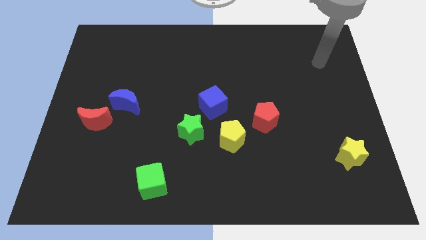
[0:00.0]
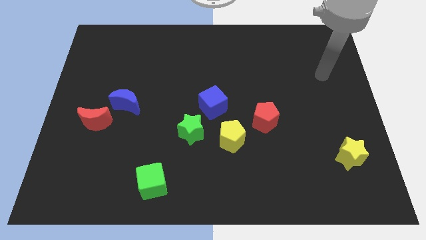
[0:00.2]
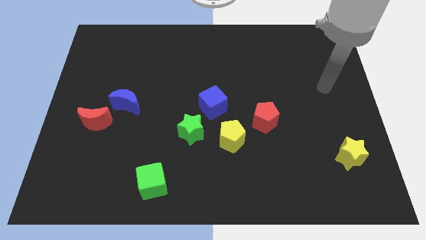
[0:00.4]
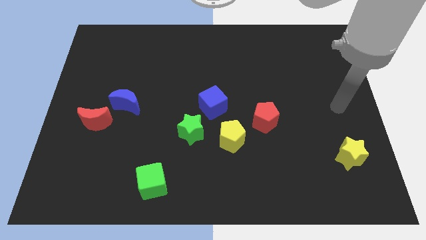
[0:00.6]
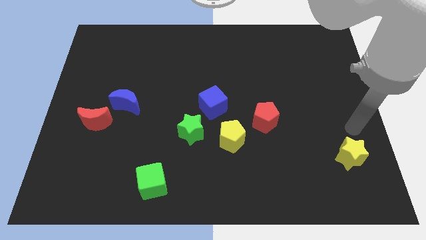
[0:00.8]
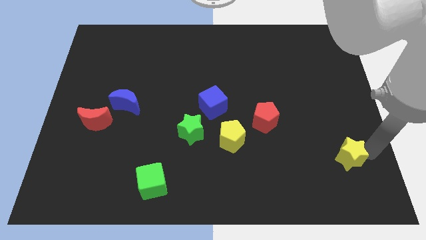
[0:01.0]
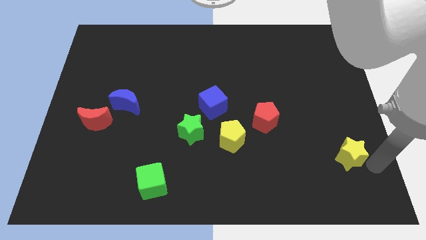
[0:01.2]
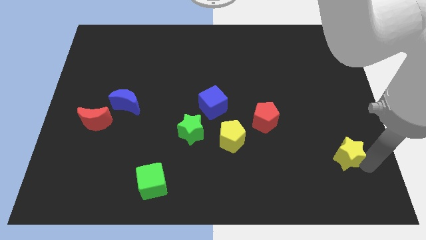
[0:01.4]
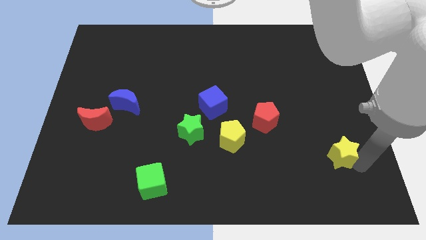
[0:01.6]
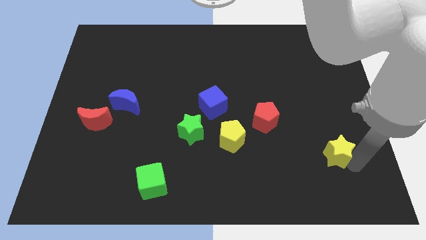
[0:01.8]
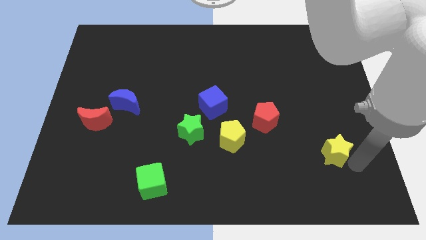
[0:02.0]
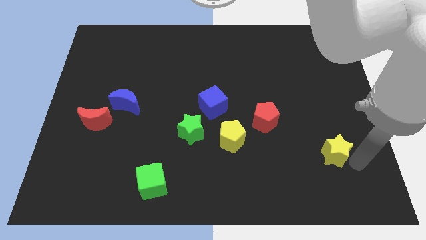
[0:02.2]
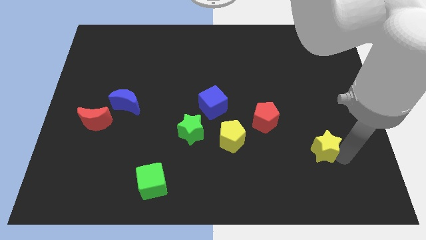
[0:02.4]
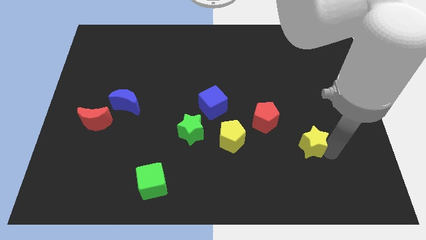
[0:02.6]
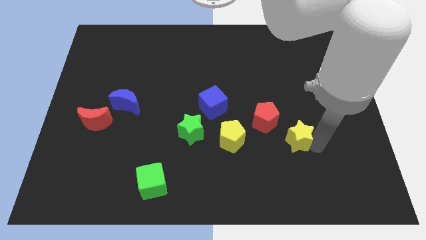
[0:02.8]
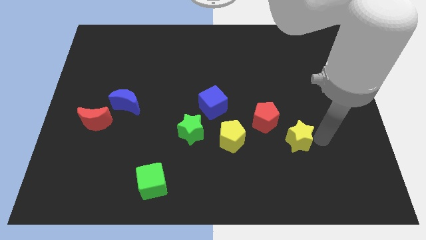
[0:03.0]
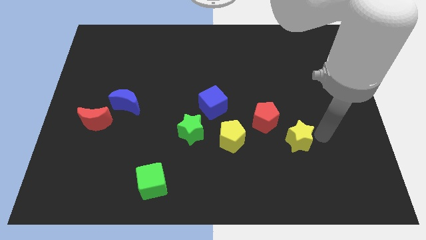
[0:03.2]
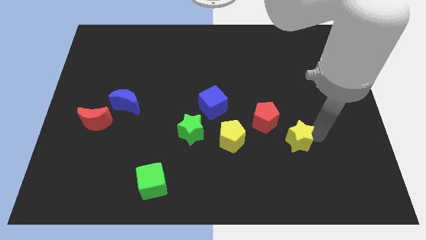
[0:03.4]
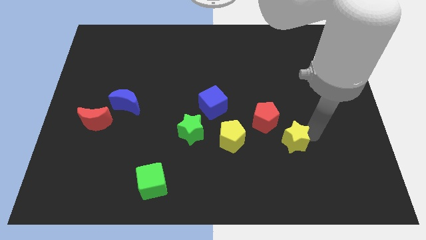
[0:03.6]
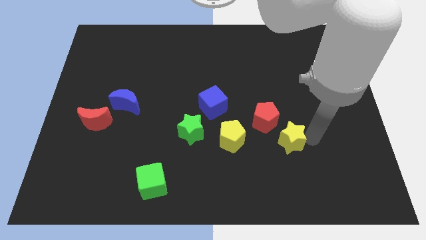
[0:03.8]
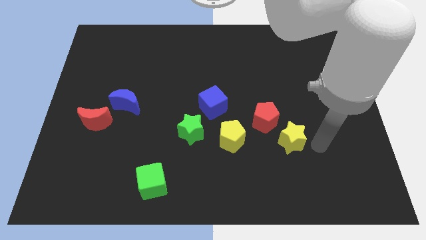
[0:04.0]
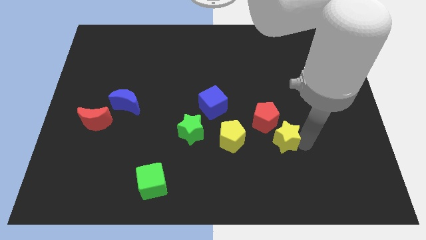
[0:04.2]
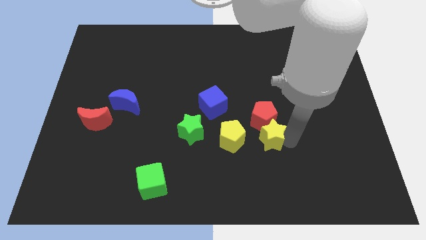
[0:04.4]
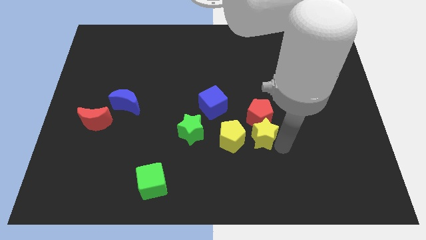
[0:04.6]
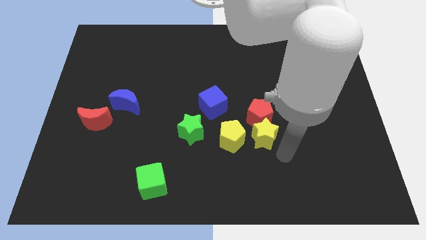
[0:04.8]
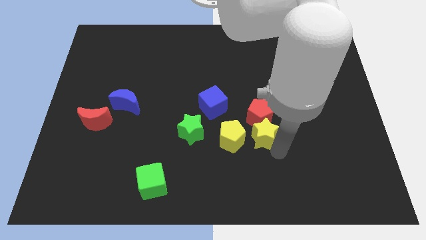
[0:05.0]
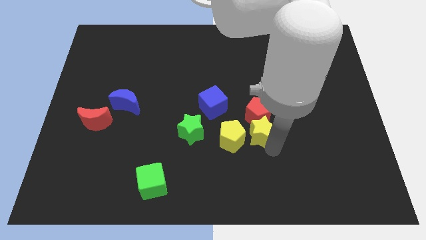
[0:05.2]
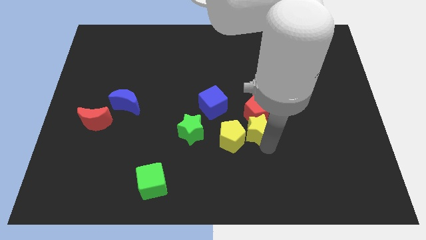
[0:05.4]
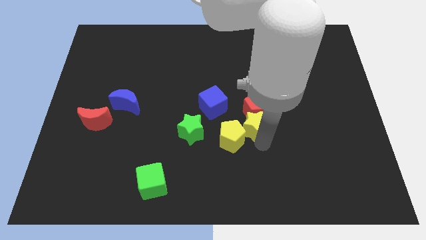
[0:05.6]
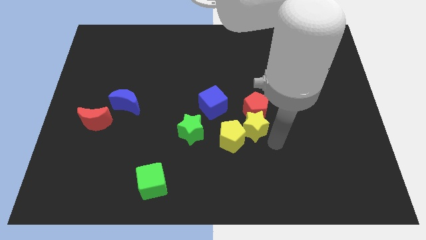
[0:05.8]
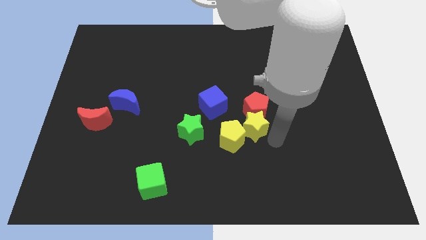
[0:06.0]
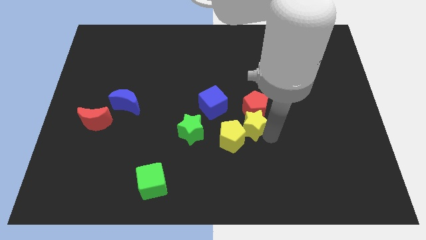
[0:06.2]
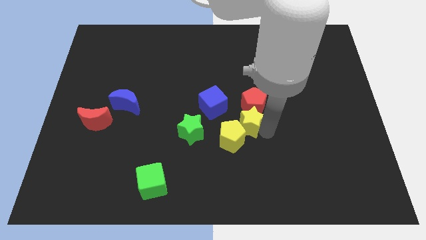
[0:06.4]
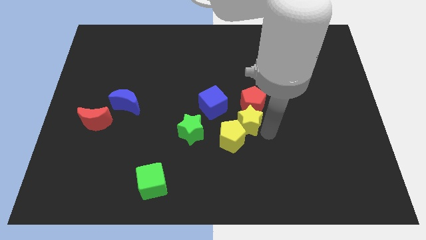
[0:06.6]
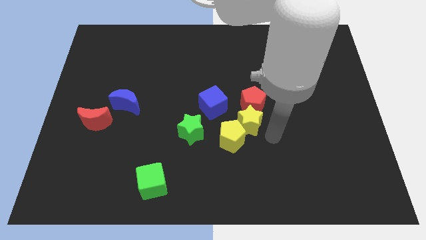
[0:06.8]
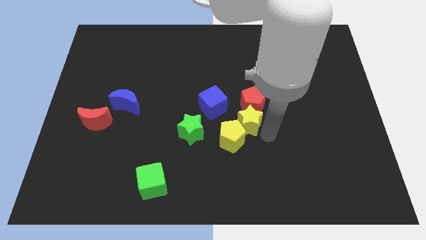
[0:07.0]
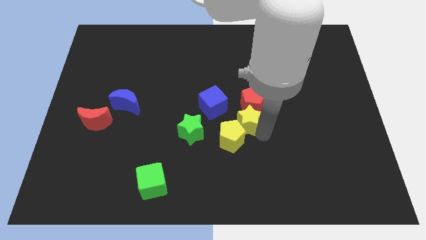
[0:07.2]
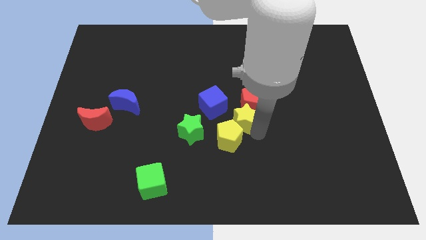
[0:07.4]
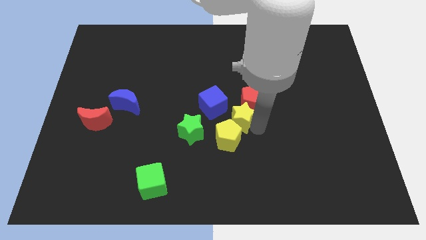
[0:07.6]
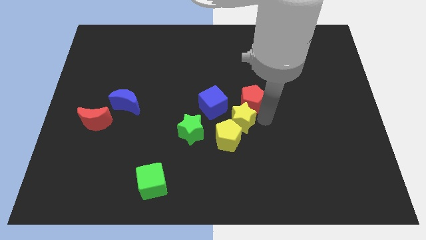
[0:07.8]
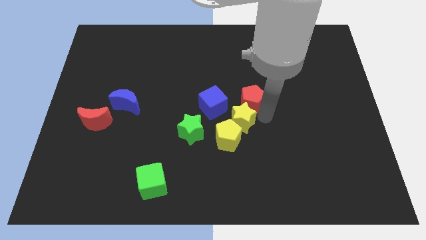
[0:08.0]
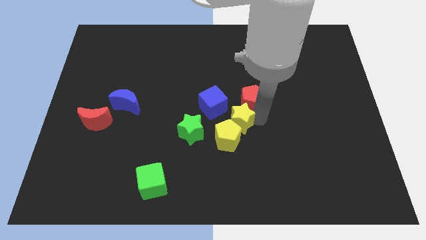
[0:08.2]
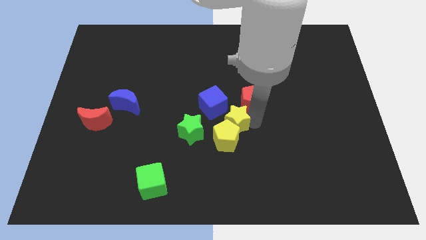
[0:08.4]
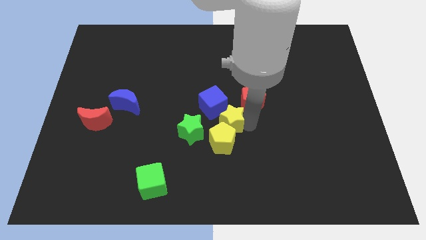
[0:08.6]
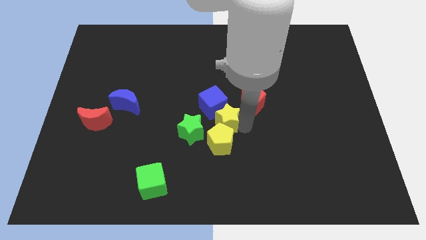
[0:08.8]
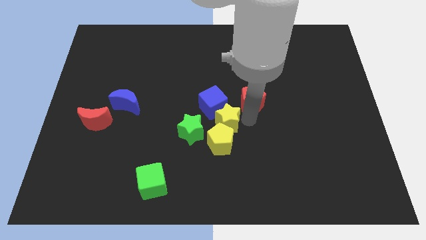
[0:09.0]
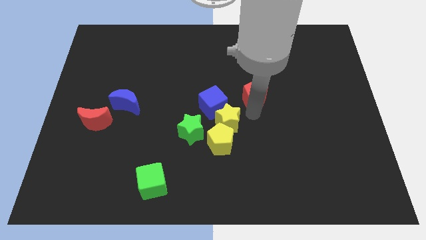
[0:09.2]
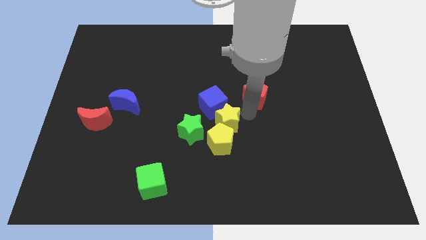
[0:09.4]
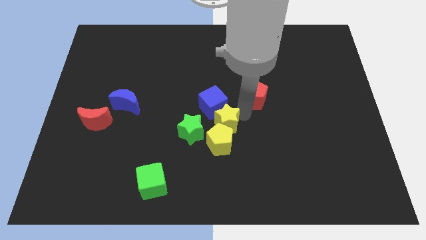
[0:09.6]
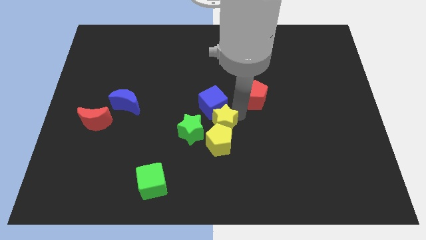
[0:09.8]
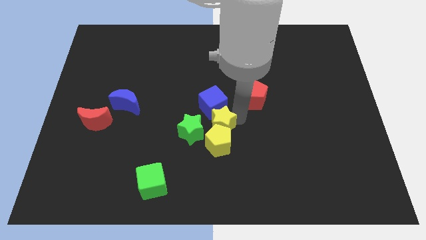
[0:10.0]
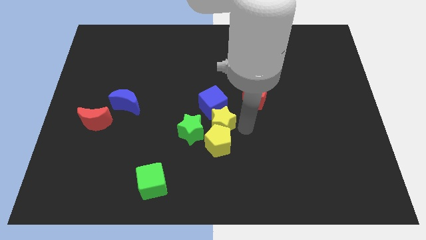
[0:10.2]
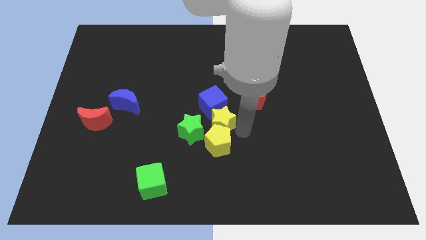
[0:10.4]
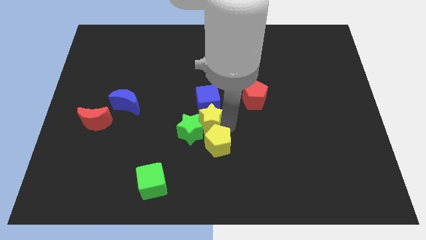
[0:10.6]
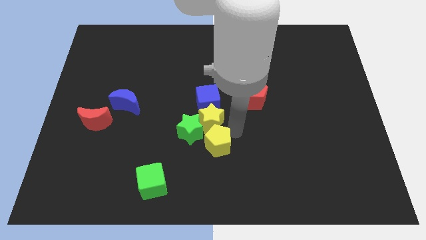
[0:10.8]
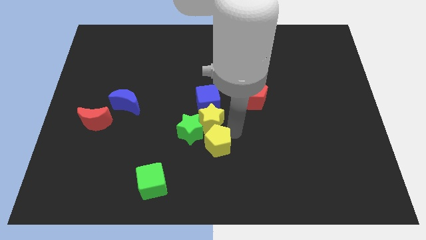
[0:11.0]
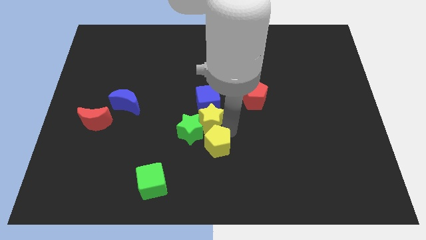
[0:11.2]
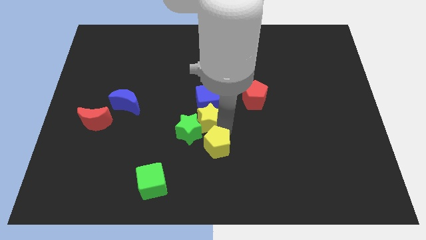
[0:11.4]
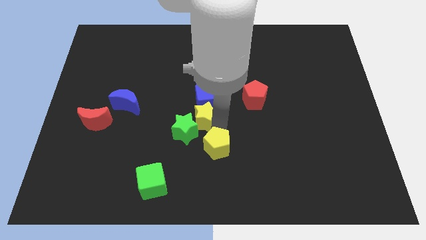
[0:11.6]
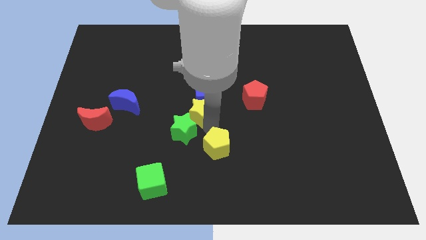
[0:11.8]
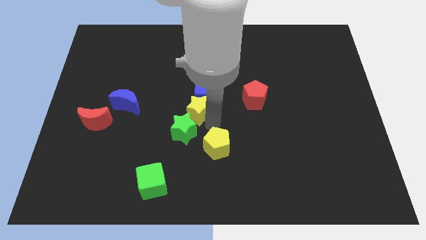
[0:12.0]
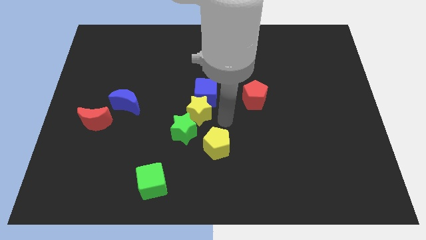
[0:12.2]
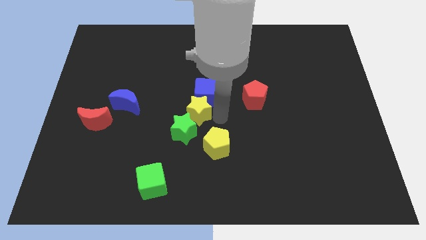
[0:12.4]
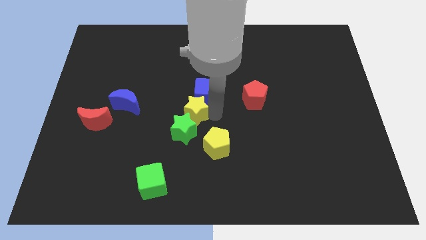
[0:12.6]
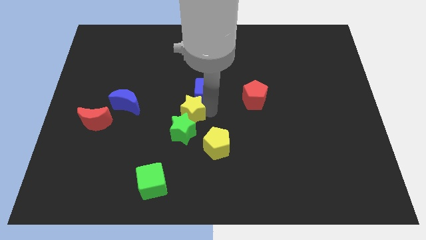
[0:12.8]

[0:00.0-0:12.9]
slide the yellow star just right of the blue moon

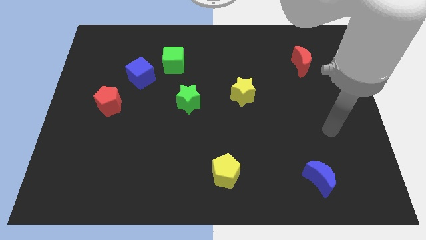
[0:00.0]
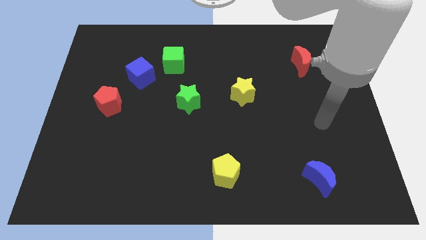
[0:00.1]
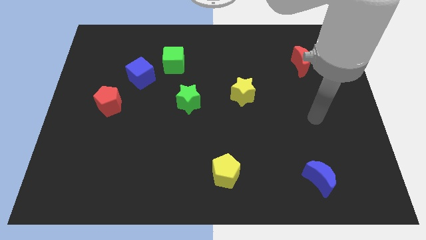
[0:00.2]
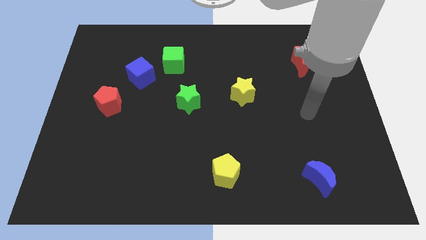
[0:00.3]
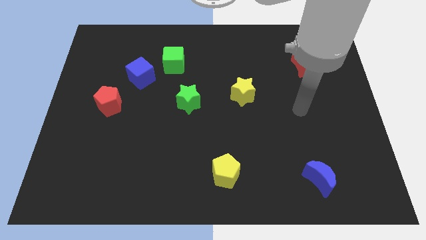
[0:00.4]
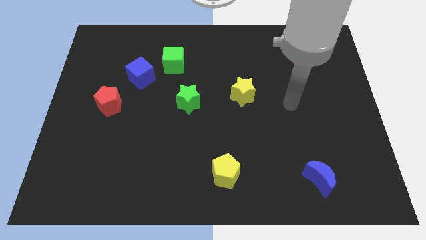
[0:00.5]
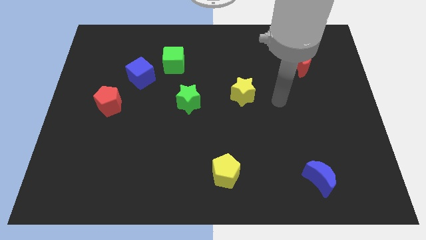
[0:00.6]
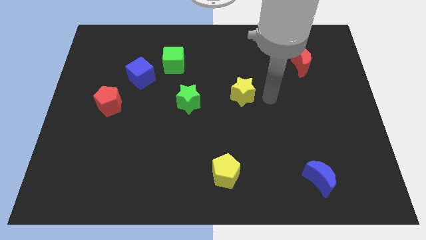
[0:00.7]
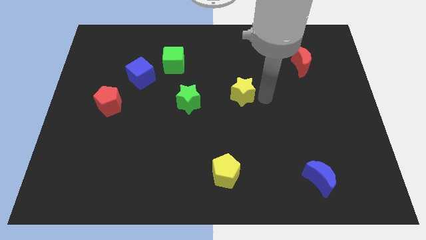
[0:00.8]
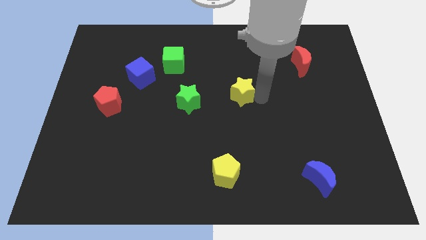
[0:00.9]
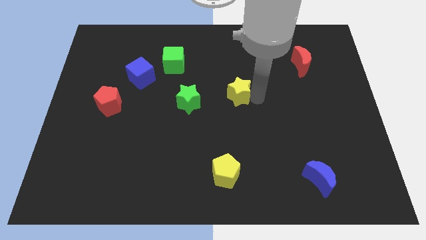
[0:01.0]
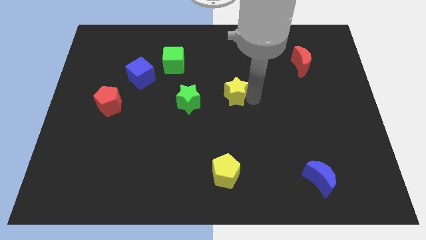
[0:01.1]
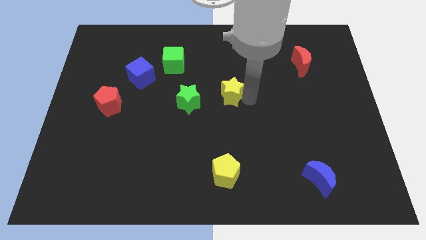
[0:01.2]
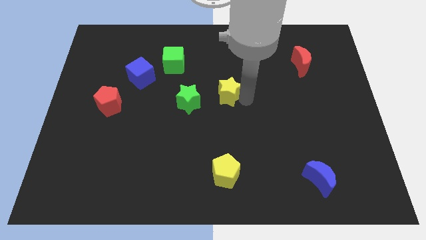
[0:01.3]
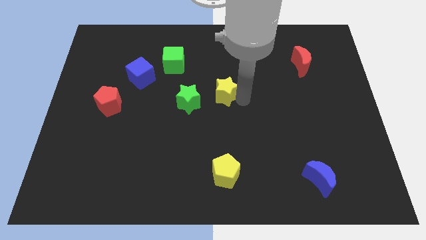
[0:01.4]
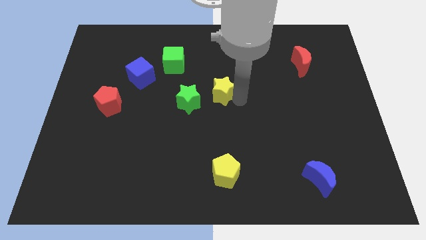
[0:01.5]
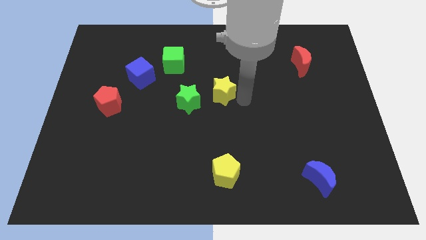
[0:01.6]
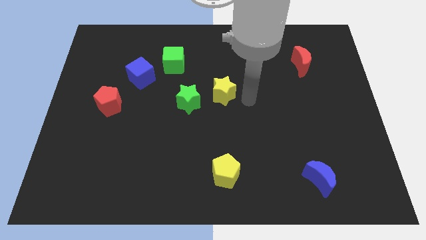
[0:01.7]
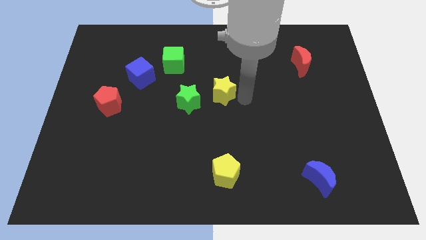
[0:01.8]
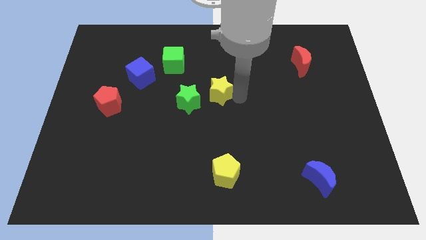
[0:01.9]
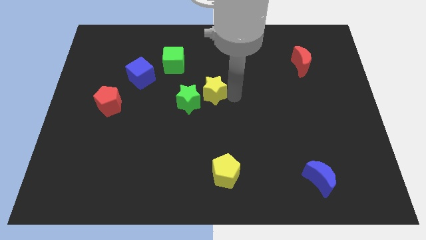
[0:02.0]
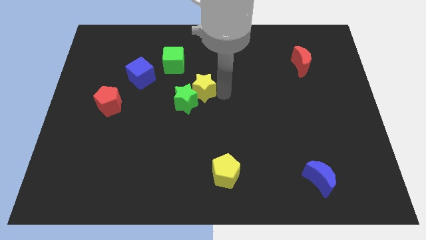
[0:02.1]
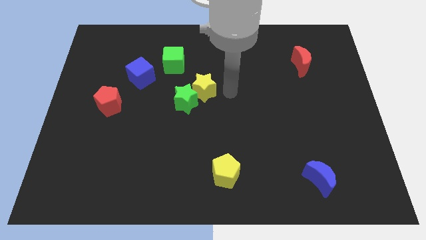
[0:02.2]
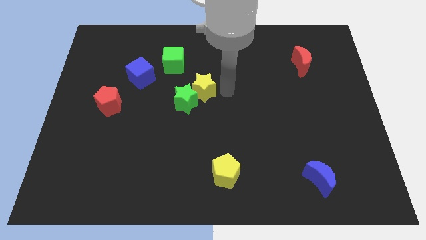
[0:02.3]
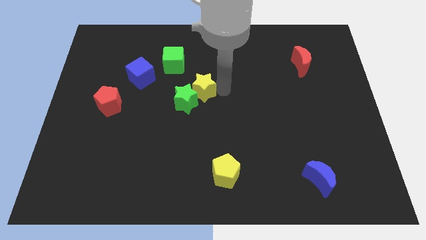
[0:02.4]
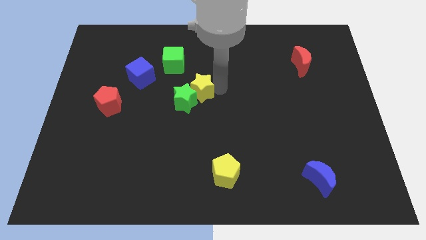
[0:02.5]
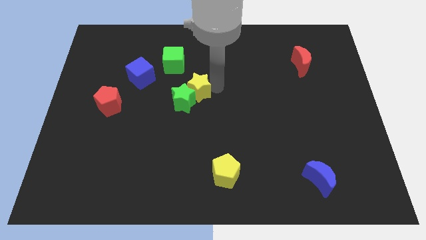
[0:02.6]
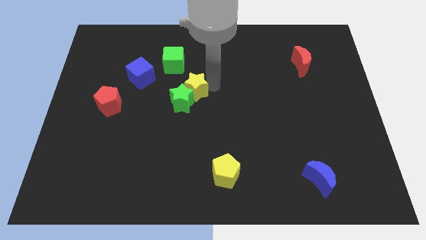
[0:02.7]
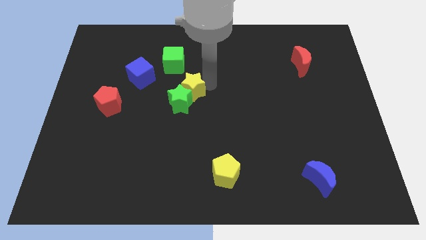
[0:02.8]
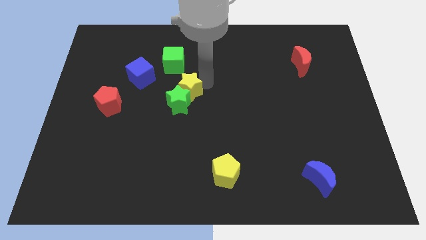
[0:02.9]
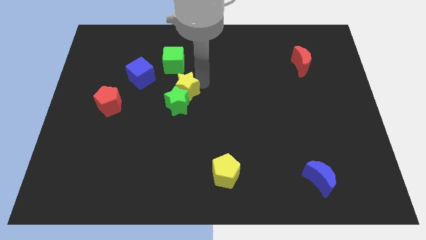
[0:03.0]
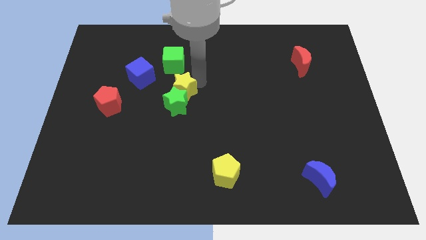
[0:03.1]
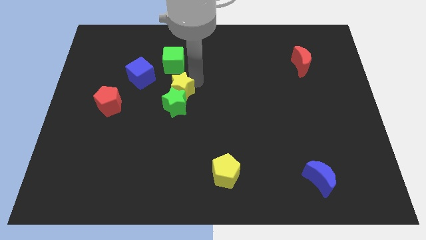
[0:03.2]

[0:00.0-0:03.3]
push the yellow star to the top left side of the green star
